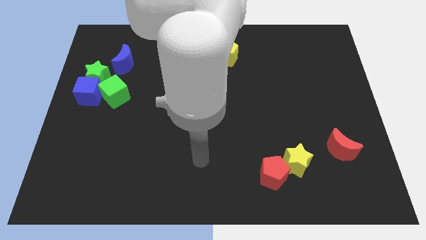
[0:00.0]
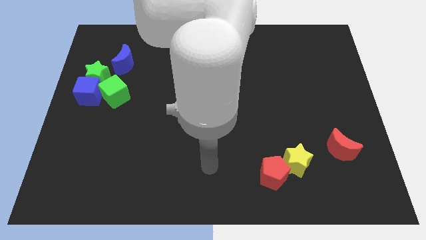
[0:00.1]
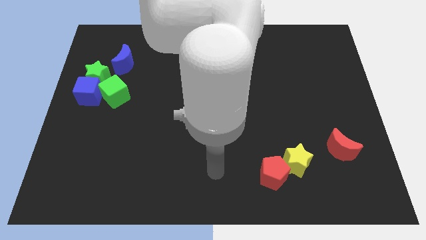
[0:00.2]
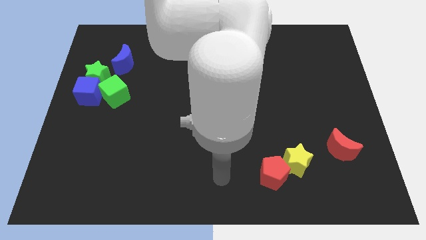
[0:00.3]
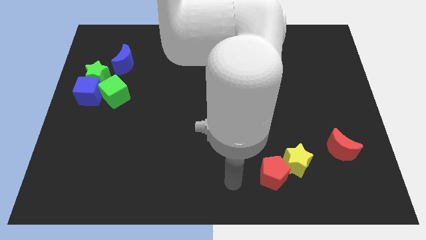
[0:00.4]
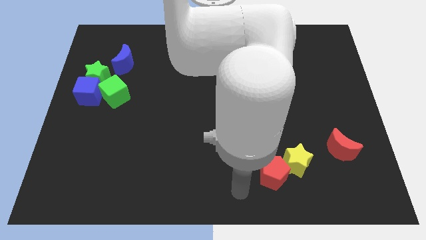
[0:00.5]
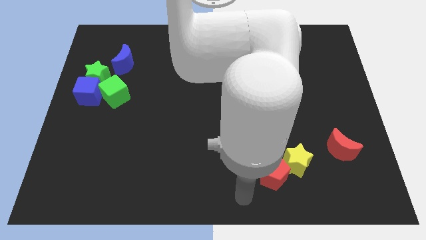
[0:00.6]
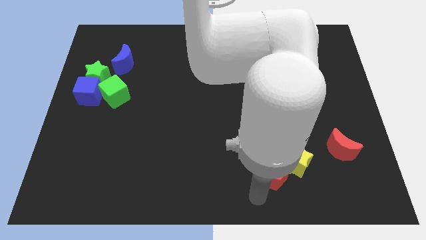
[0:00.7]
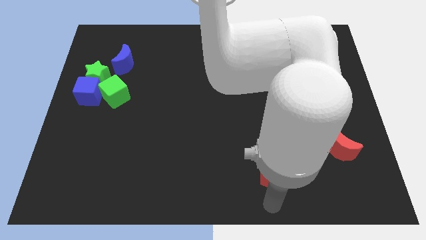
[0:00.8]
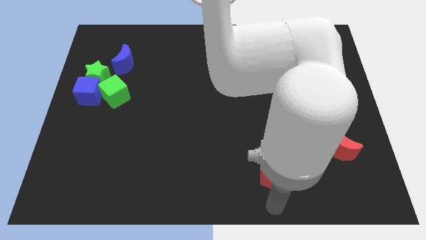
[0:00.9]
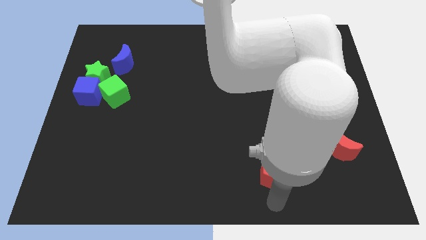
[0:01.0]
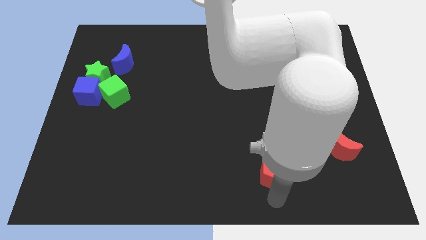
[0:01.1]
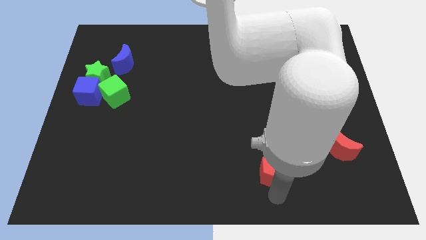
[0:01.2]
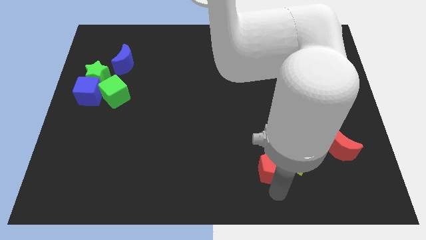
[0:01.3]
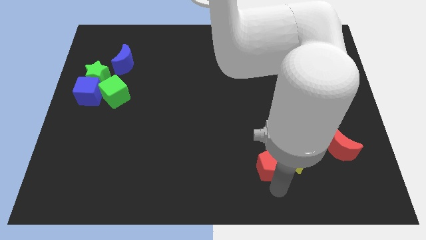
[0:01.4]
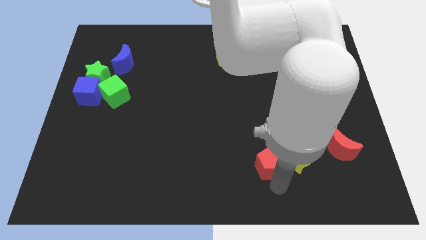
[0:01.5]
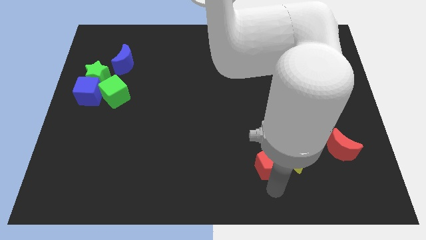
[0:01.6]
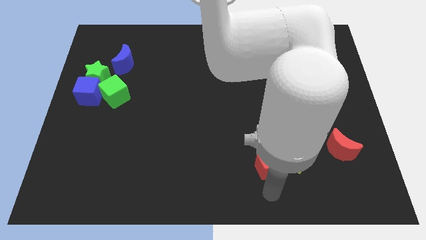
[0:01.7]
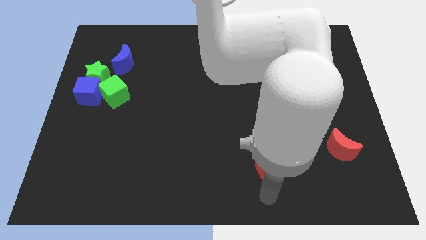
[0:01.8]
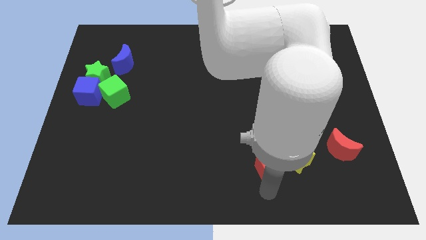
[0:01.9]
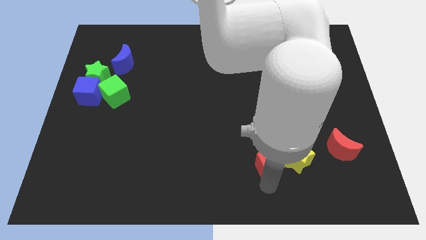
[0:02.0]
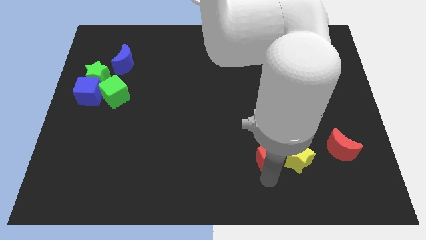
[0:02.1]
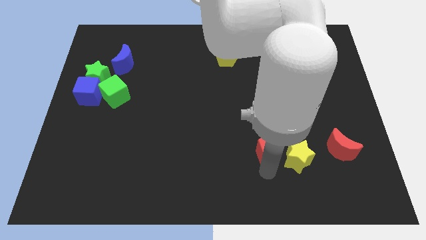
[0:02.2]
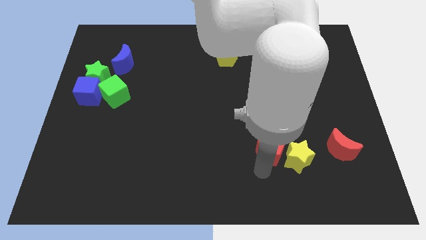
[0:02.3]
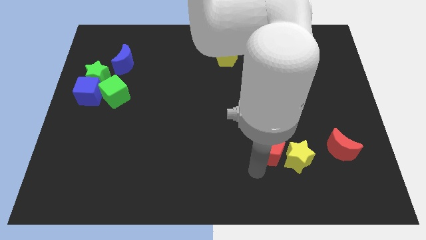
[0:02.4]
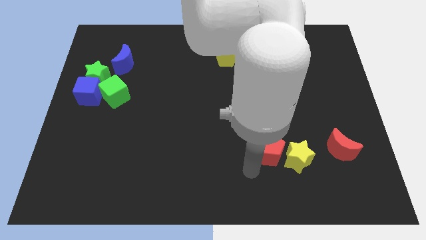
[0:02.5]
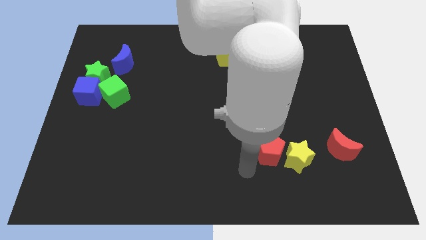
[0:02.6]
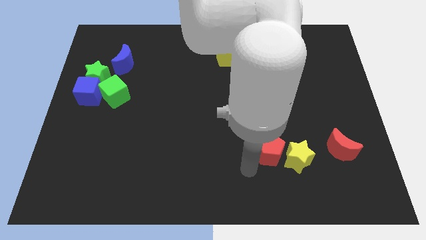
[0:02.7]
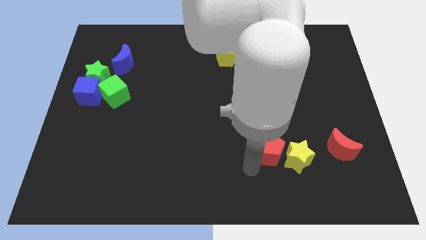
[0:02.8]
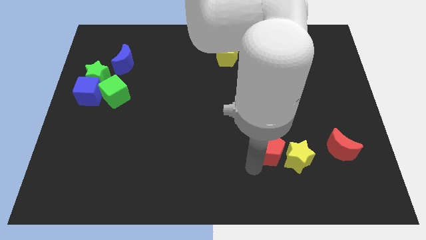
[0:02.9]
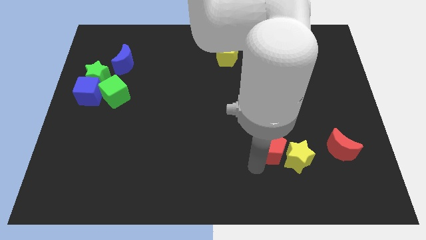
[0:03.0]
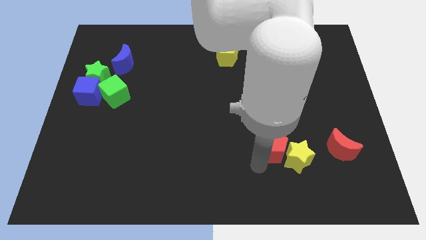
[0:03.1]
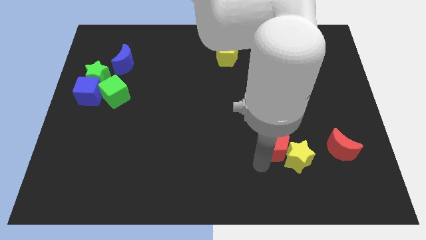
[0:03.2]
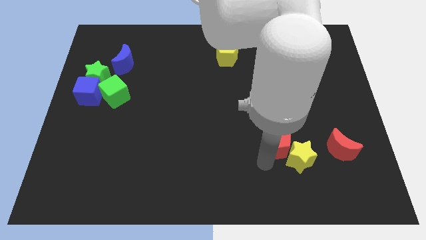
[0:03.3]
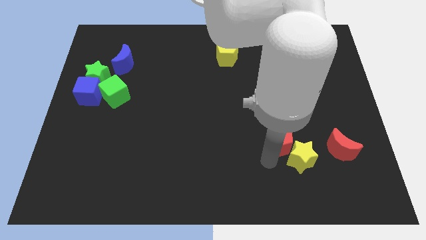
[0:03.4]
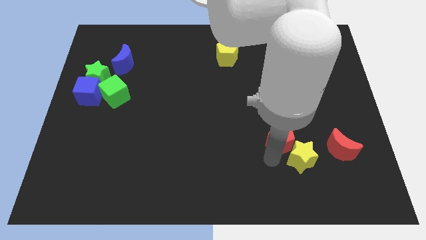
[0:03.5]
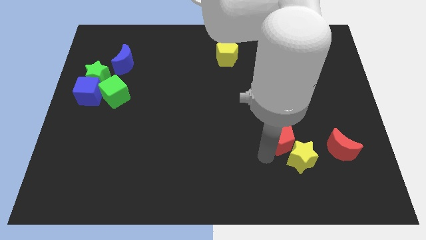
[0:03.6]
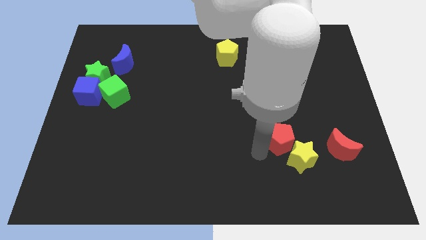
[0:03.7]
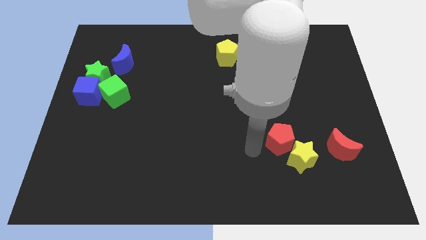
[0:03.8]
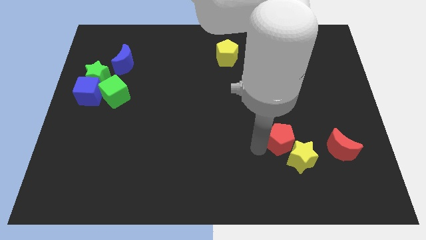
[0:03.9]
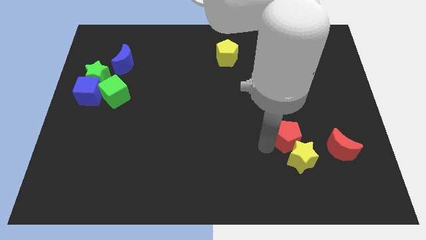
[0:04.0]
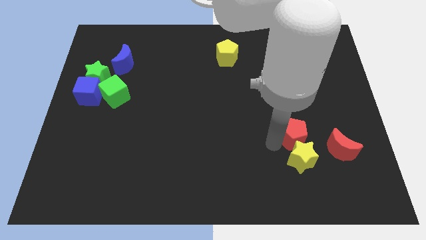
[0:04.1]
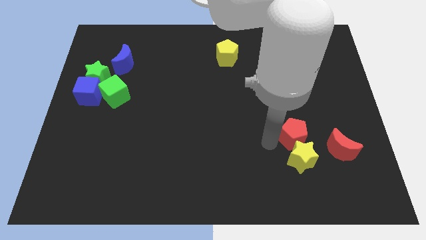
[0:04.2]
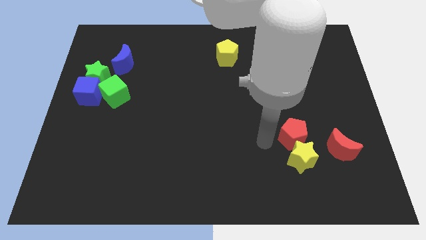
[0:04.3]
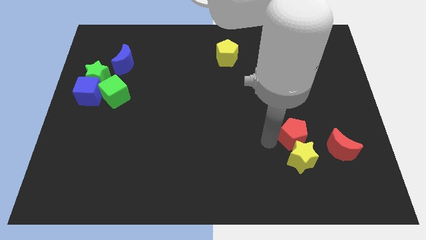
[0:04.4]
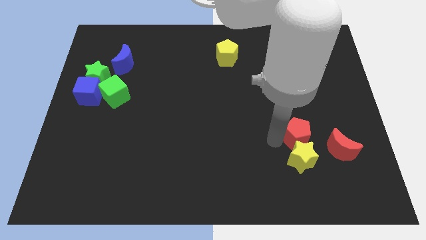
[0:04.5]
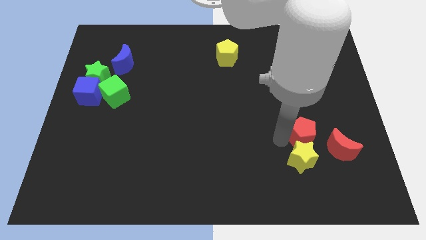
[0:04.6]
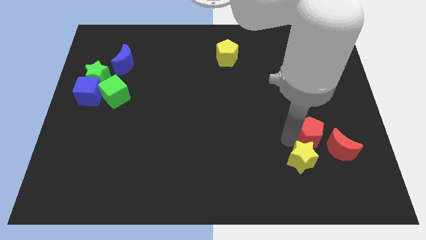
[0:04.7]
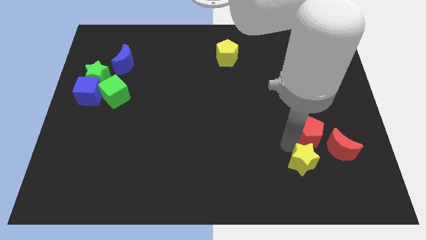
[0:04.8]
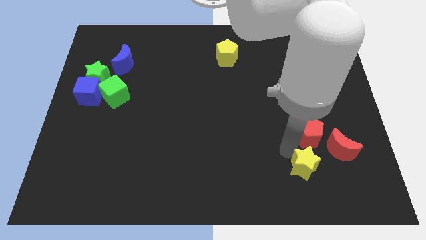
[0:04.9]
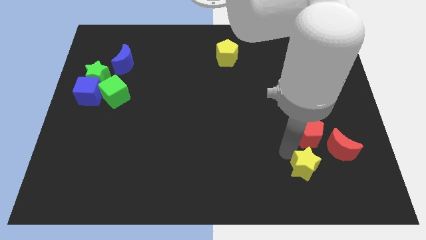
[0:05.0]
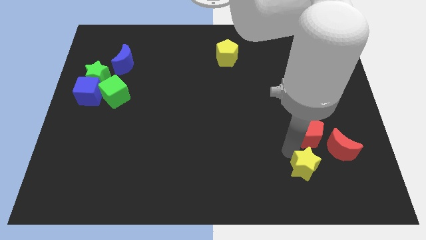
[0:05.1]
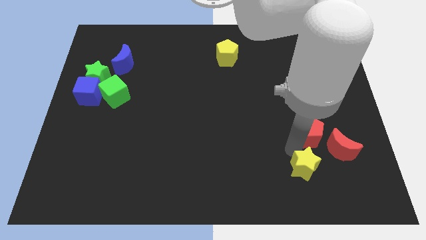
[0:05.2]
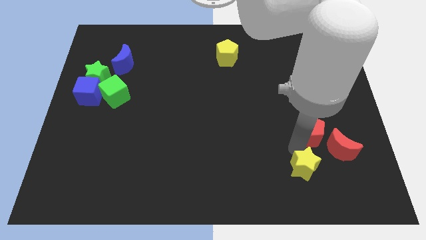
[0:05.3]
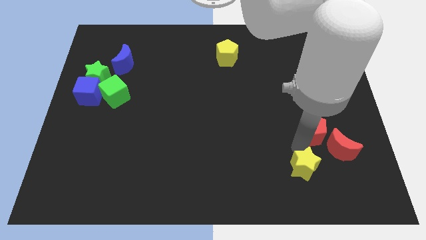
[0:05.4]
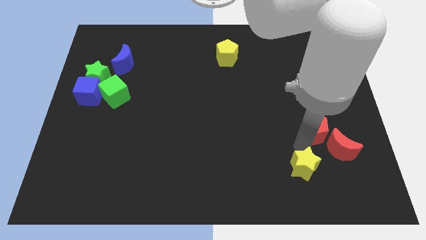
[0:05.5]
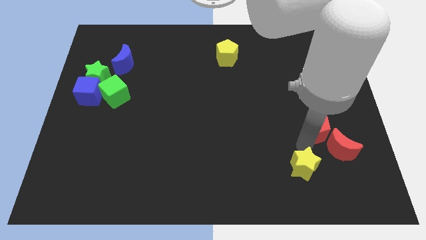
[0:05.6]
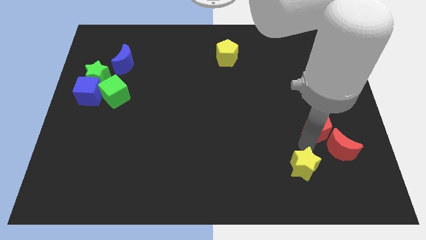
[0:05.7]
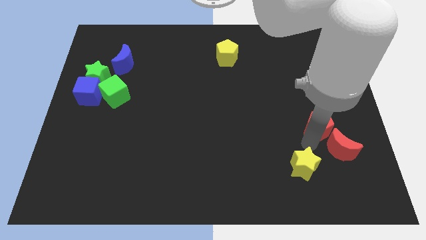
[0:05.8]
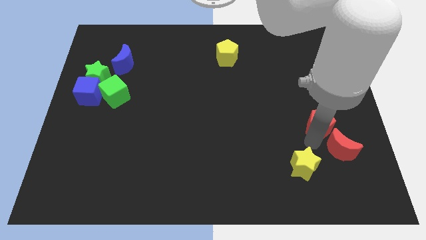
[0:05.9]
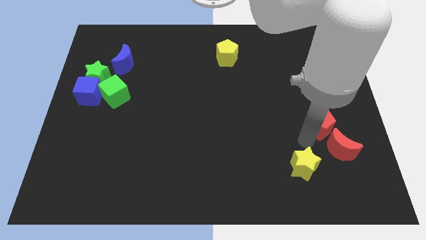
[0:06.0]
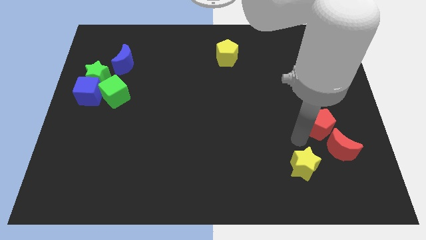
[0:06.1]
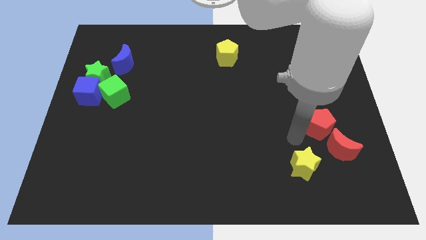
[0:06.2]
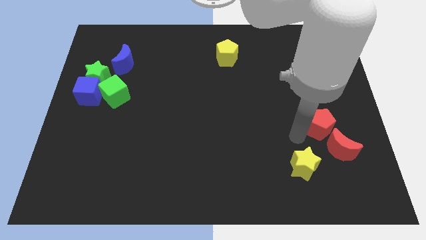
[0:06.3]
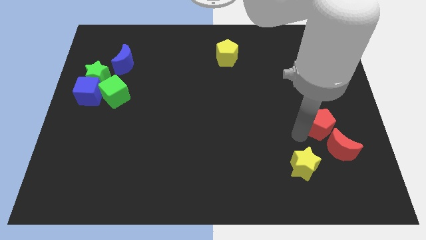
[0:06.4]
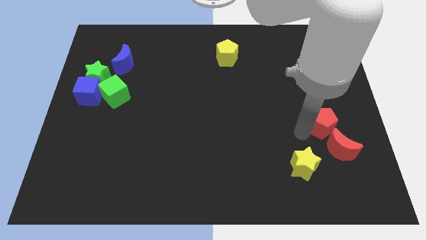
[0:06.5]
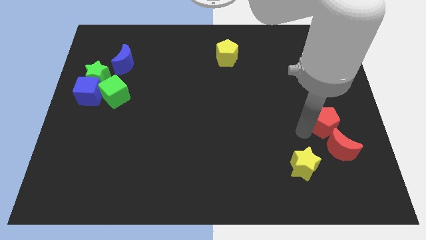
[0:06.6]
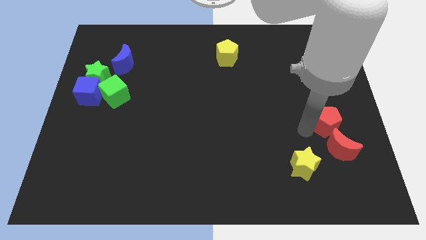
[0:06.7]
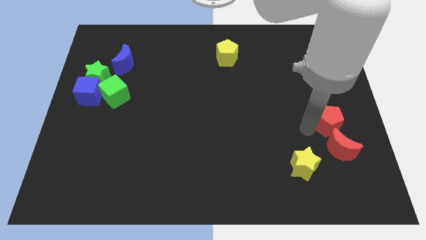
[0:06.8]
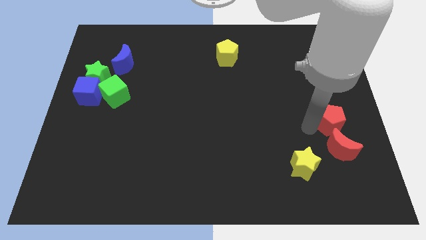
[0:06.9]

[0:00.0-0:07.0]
slide the red pentagon to the right side of the board
